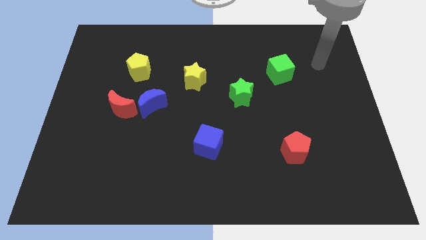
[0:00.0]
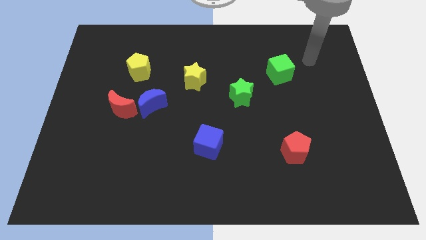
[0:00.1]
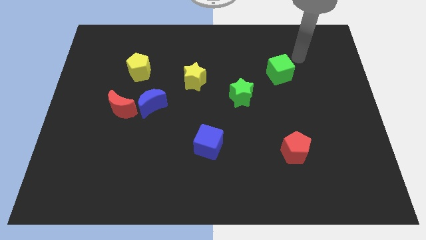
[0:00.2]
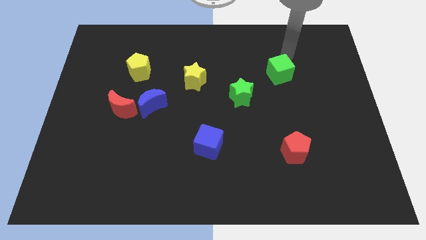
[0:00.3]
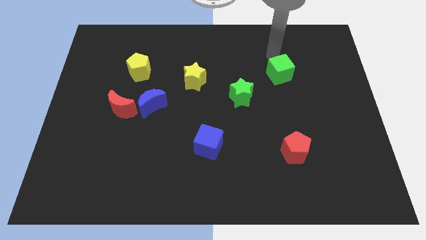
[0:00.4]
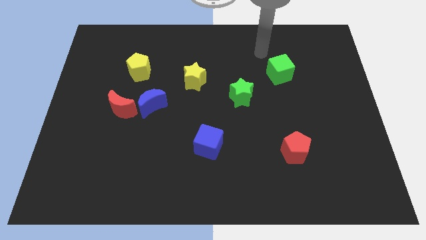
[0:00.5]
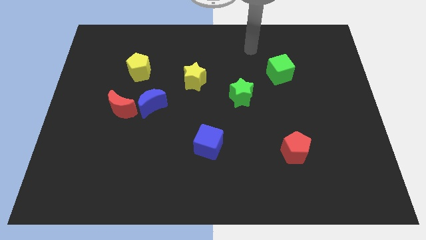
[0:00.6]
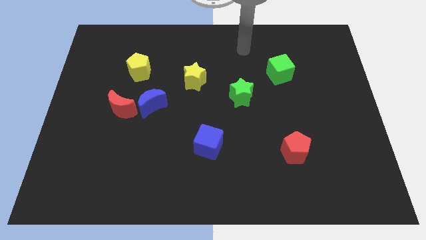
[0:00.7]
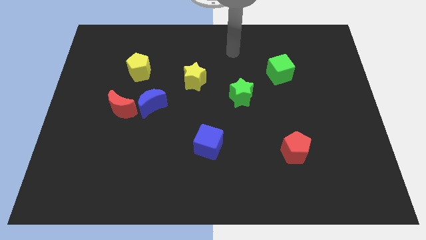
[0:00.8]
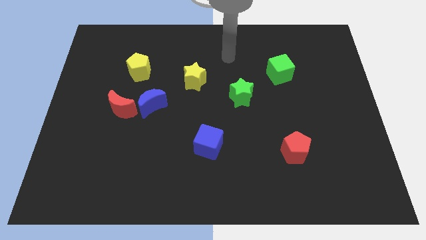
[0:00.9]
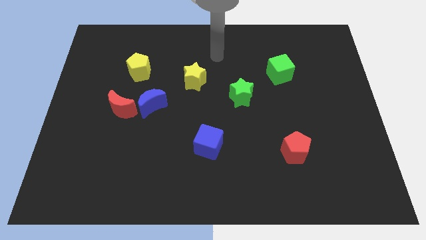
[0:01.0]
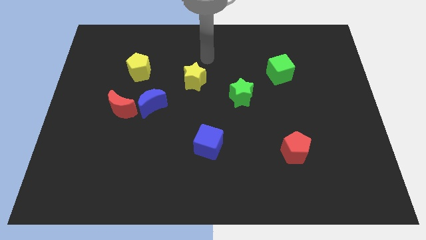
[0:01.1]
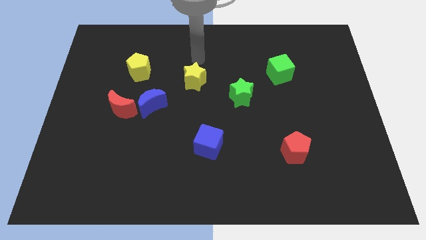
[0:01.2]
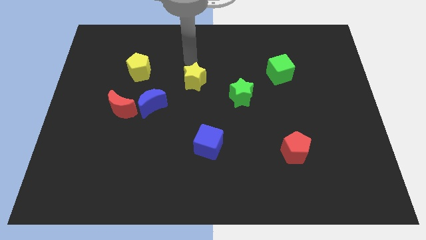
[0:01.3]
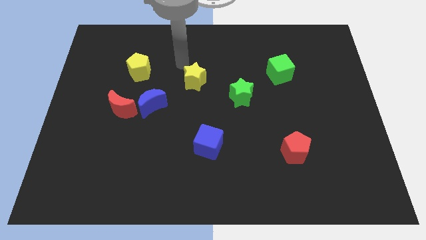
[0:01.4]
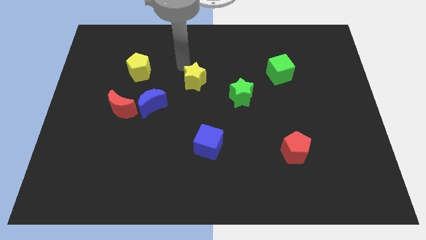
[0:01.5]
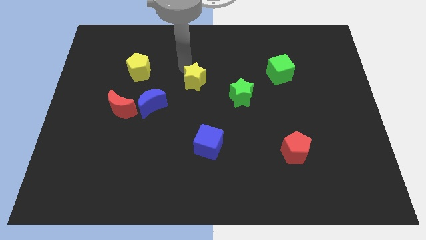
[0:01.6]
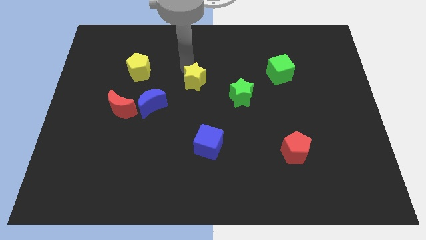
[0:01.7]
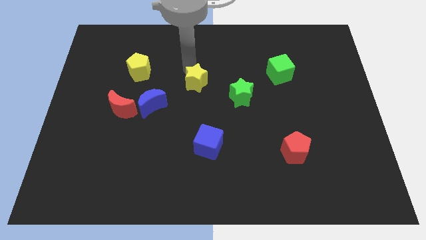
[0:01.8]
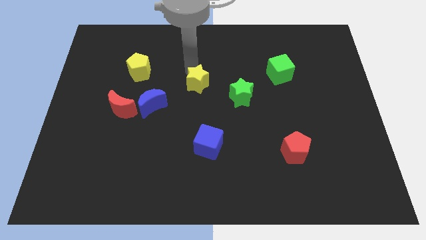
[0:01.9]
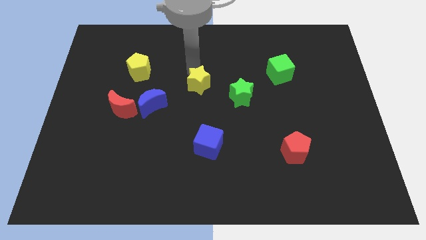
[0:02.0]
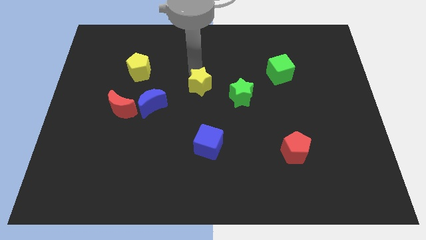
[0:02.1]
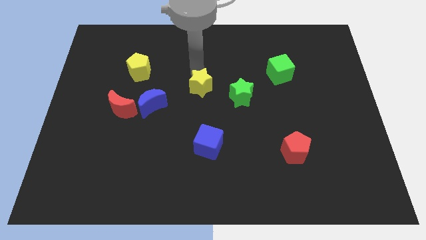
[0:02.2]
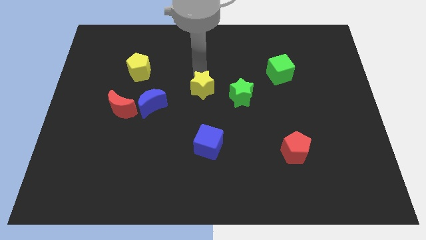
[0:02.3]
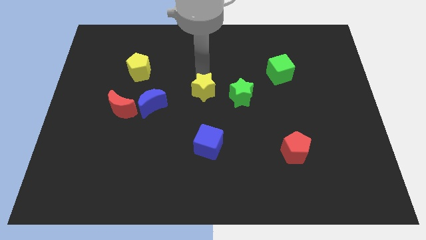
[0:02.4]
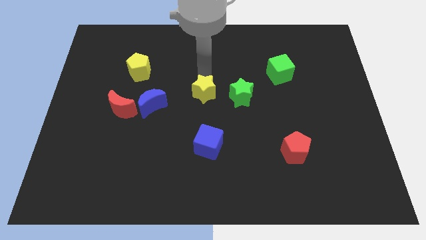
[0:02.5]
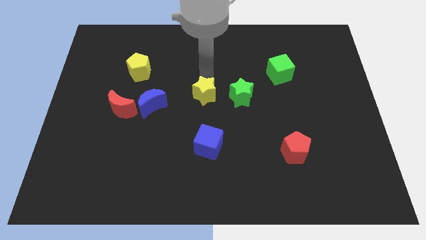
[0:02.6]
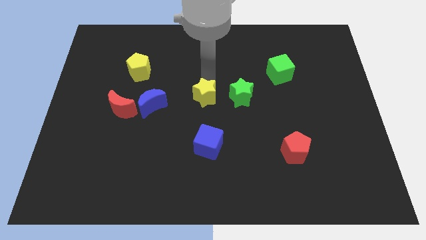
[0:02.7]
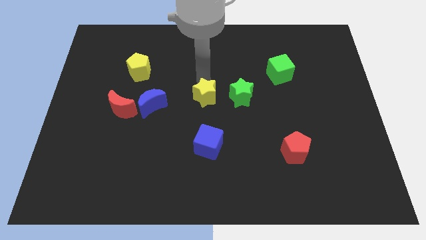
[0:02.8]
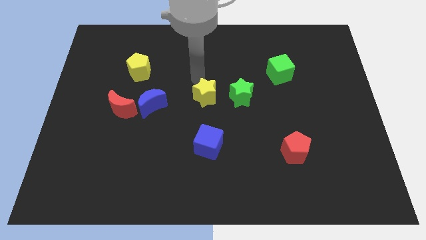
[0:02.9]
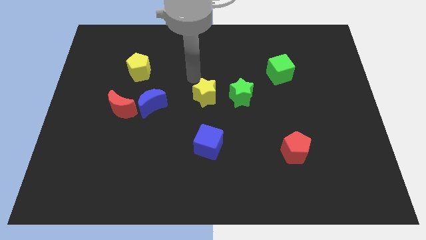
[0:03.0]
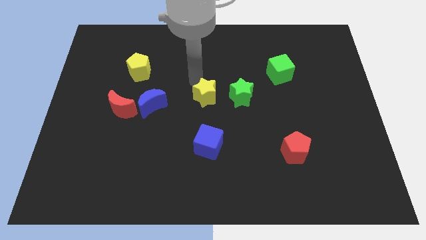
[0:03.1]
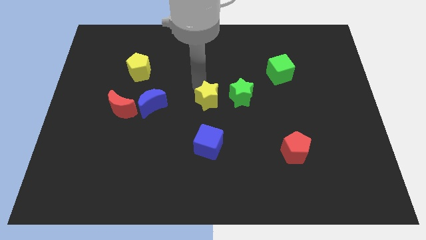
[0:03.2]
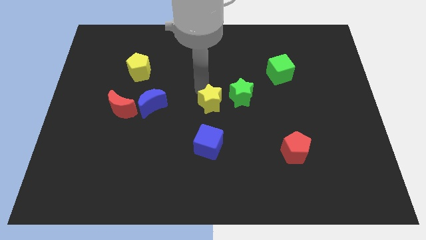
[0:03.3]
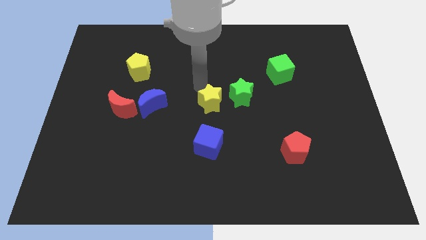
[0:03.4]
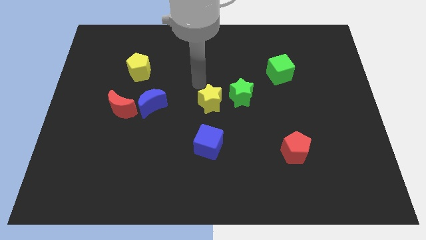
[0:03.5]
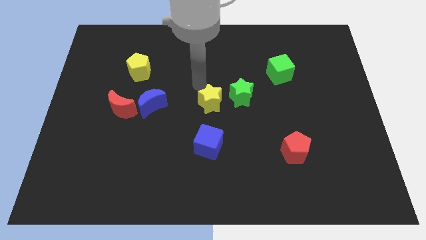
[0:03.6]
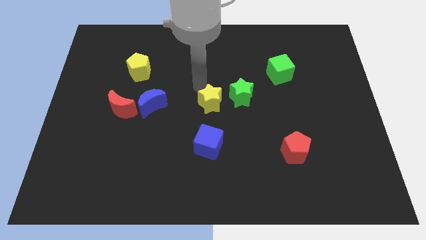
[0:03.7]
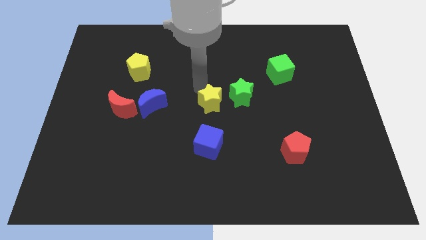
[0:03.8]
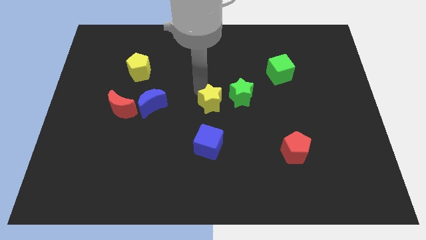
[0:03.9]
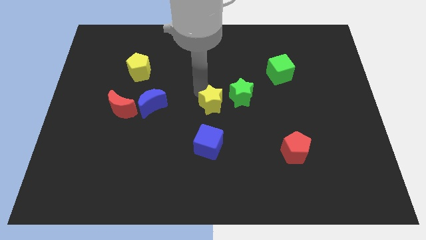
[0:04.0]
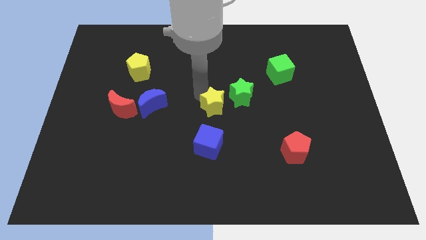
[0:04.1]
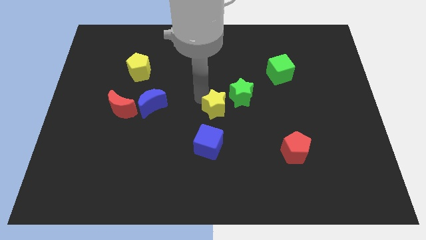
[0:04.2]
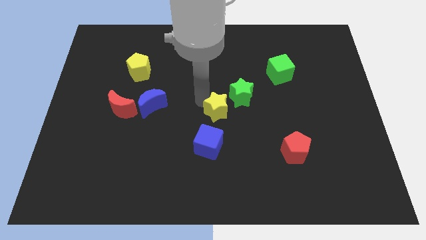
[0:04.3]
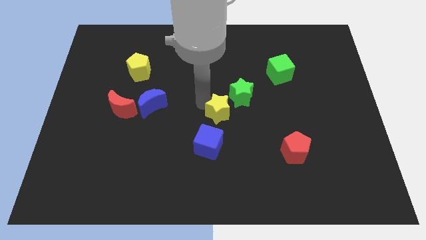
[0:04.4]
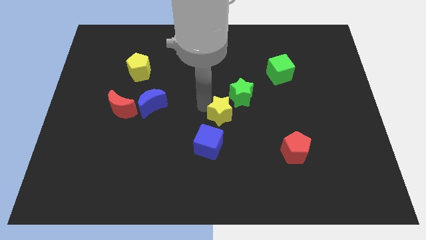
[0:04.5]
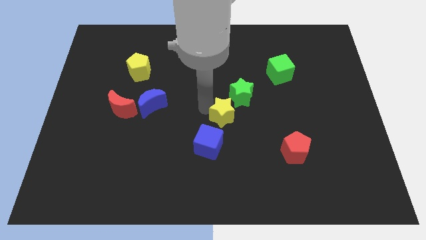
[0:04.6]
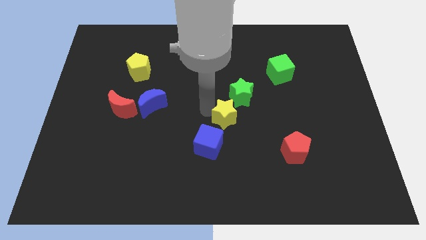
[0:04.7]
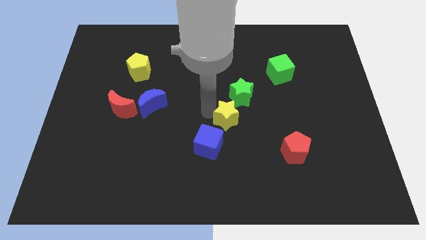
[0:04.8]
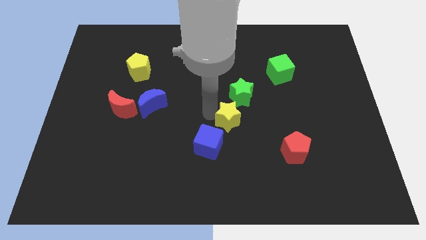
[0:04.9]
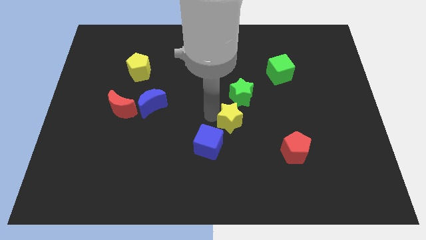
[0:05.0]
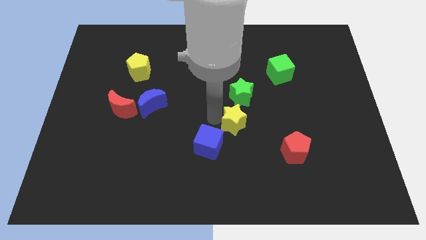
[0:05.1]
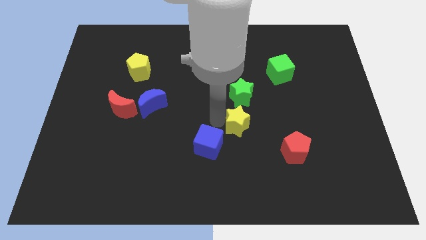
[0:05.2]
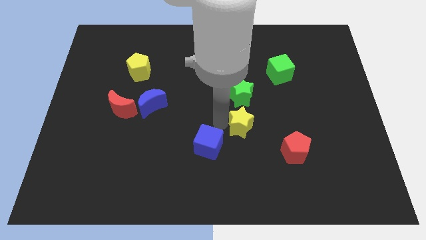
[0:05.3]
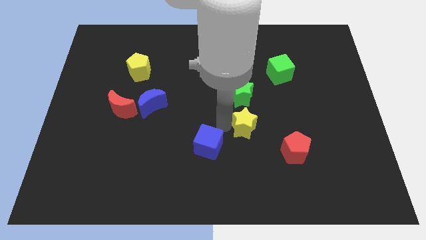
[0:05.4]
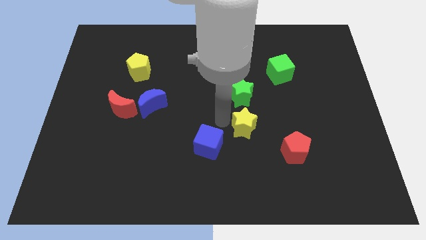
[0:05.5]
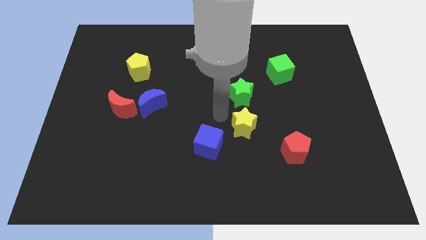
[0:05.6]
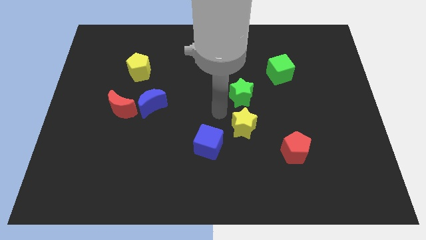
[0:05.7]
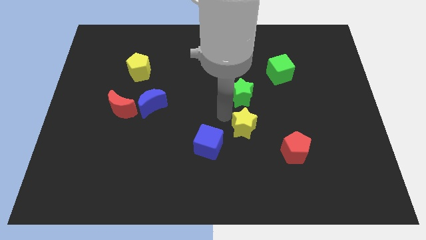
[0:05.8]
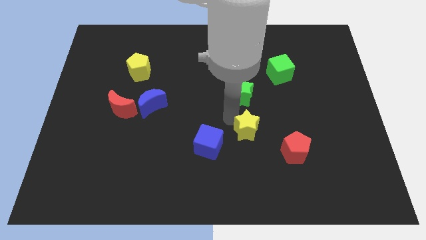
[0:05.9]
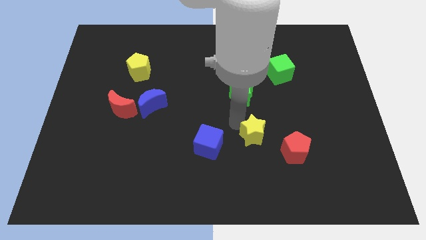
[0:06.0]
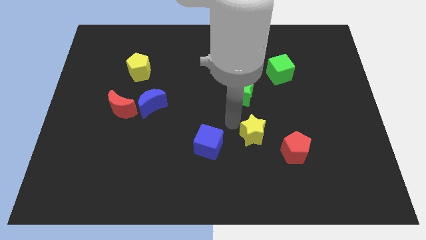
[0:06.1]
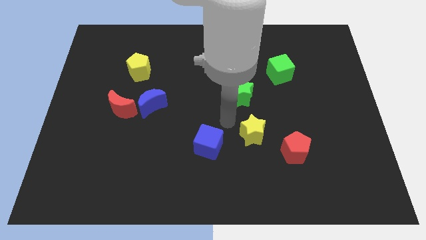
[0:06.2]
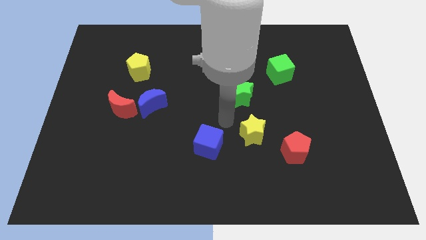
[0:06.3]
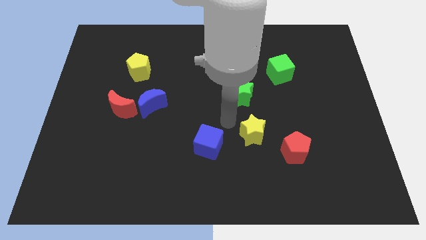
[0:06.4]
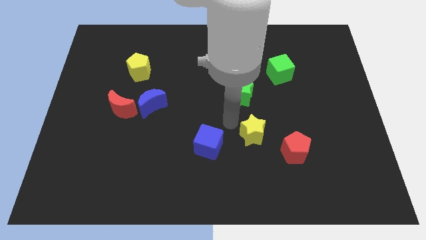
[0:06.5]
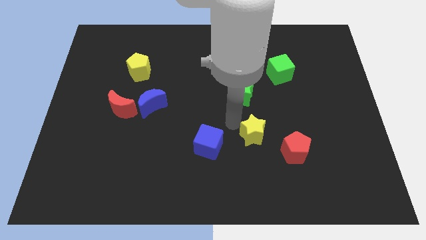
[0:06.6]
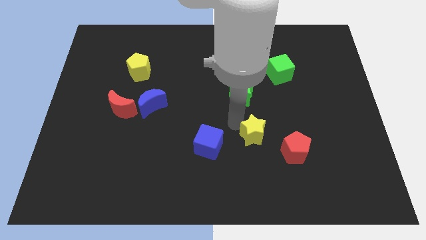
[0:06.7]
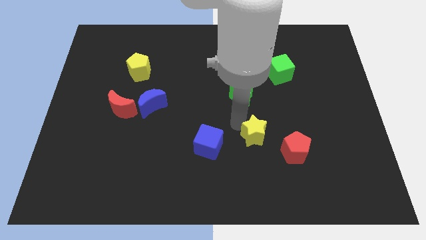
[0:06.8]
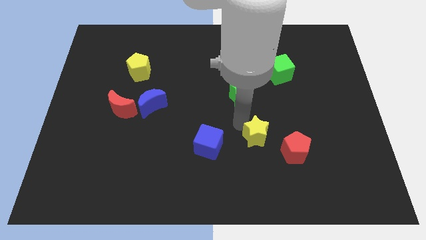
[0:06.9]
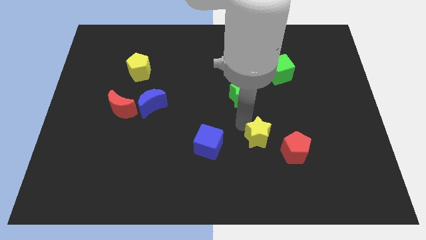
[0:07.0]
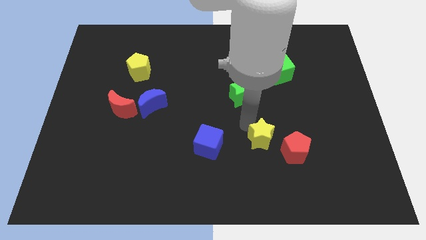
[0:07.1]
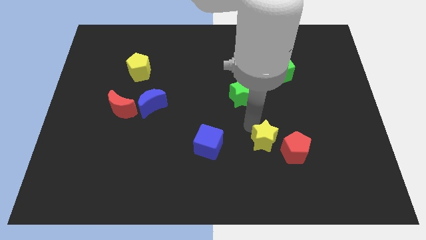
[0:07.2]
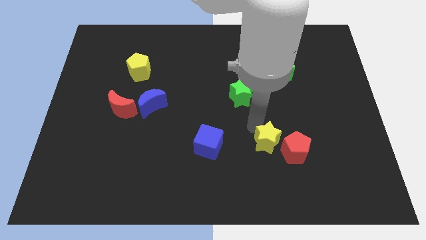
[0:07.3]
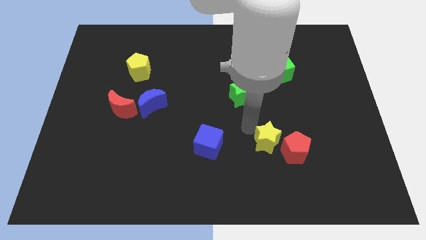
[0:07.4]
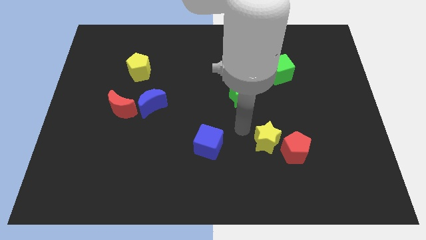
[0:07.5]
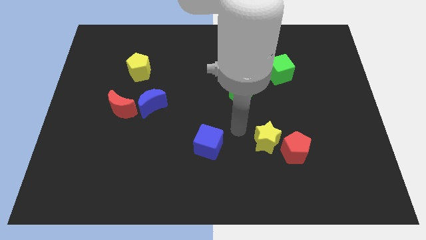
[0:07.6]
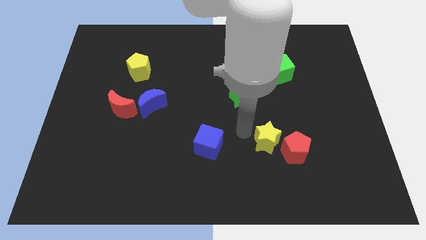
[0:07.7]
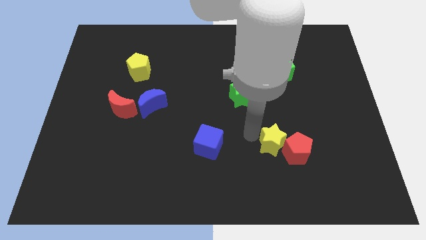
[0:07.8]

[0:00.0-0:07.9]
move the yellow star next to the red pentagon

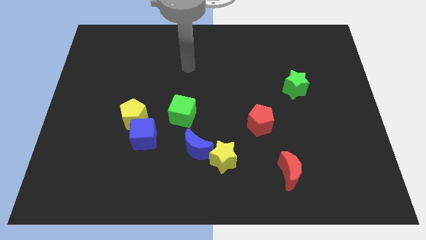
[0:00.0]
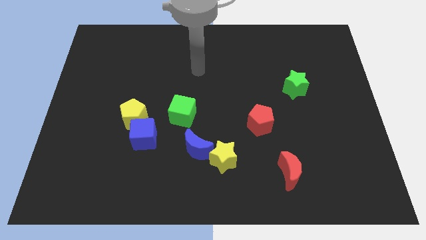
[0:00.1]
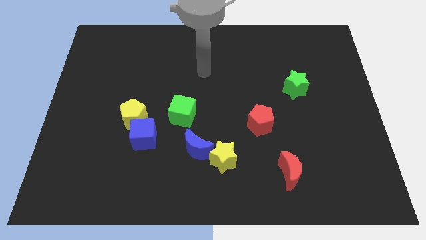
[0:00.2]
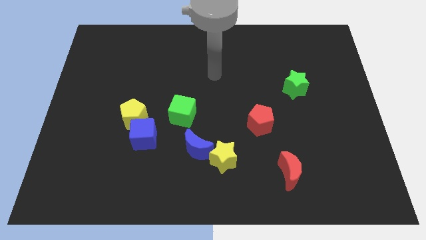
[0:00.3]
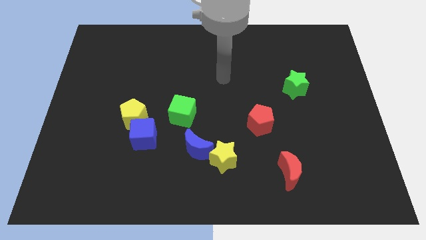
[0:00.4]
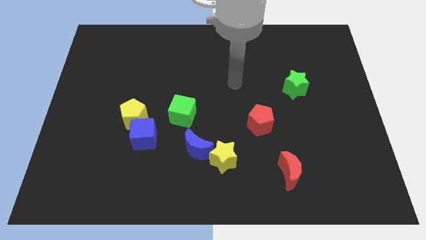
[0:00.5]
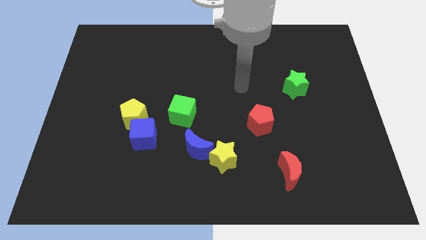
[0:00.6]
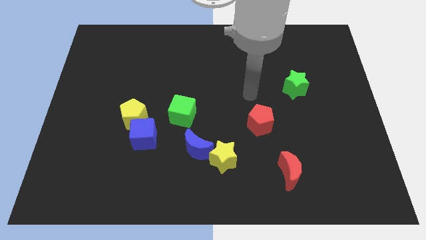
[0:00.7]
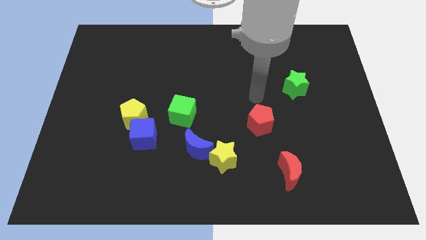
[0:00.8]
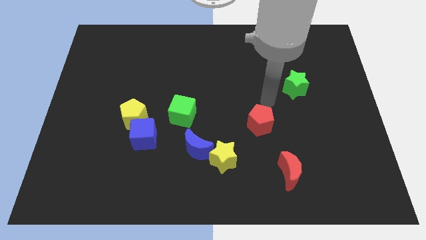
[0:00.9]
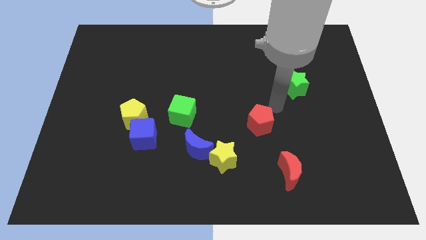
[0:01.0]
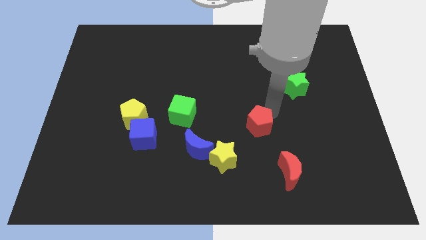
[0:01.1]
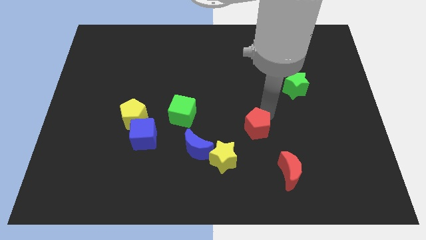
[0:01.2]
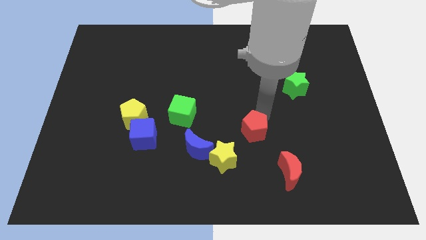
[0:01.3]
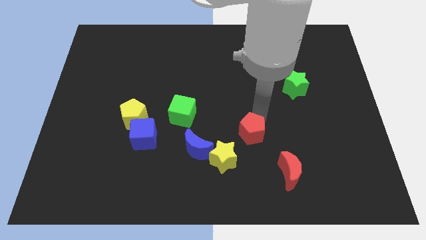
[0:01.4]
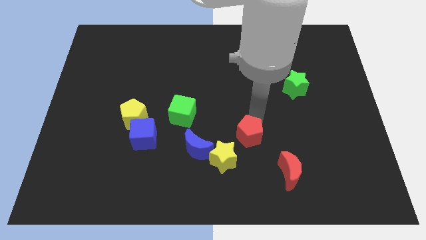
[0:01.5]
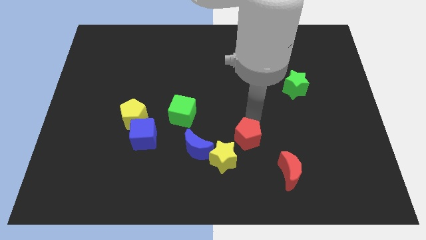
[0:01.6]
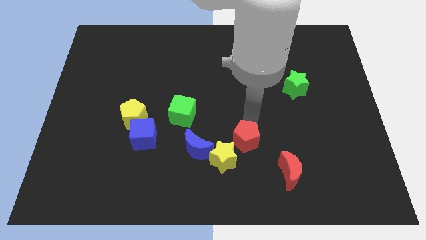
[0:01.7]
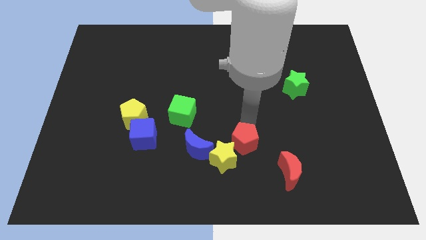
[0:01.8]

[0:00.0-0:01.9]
push the red pentagon towards the yellow star
